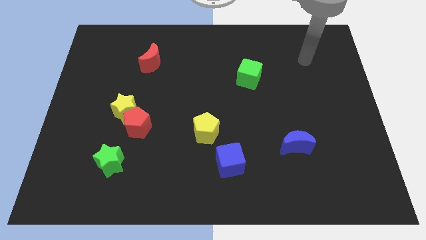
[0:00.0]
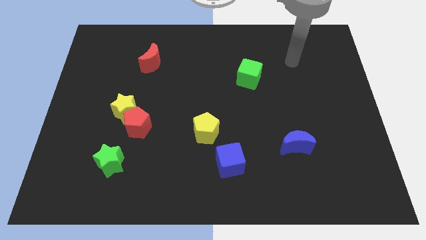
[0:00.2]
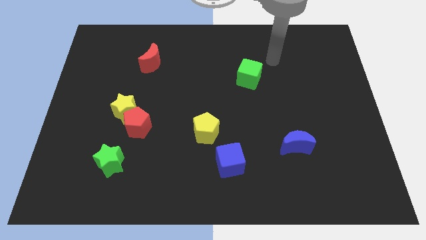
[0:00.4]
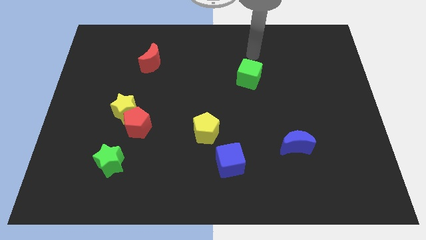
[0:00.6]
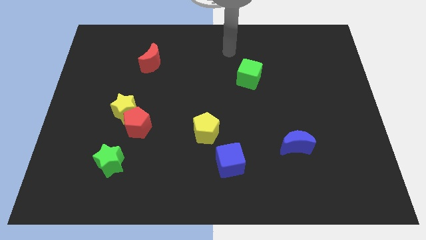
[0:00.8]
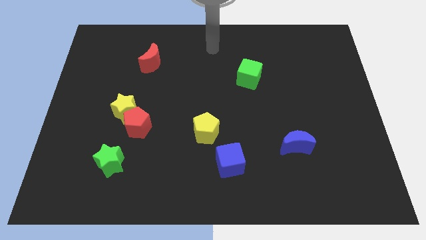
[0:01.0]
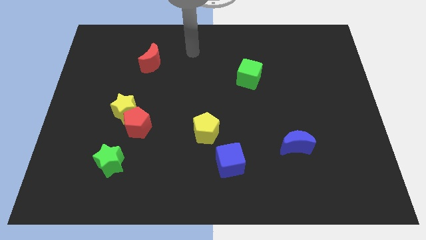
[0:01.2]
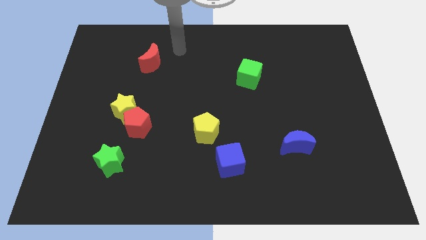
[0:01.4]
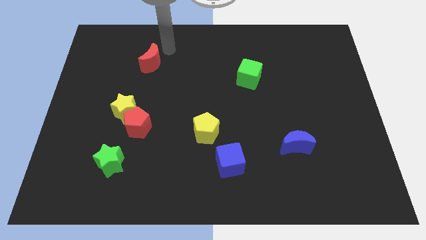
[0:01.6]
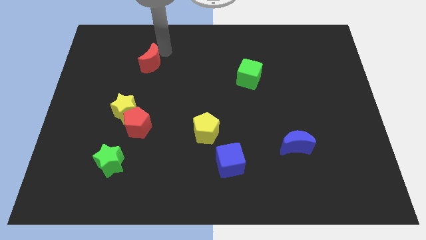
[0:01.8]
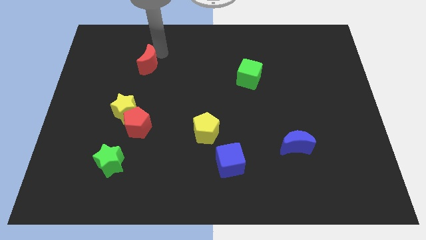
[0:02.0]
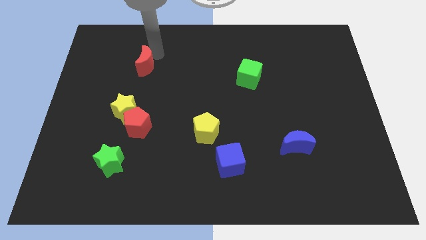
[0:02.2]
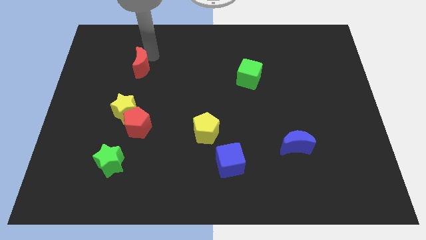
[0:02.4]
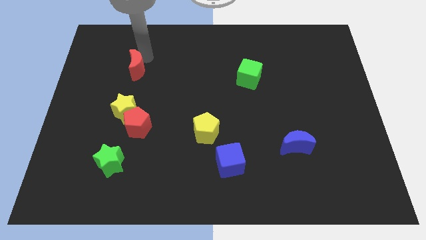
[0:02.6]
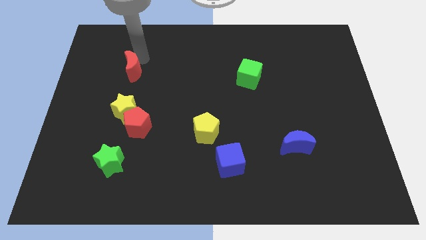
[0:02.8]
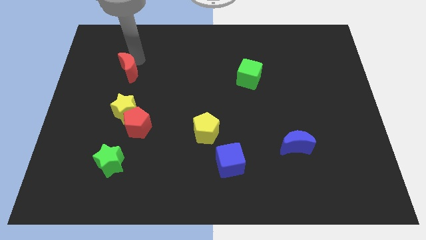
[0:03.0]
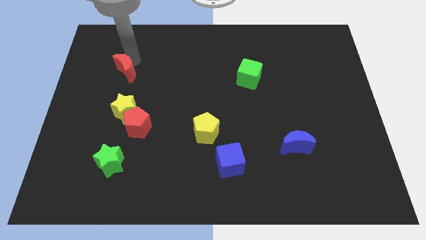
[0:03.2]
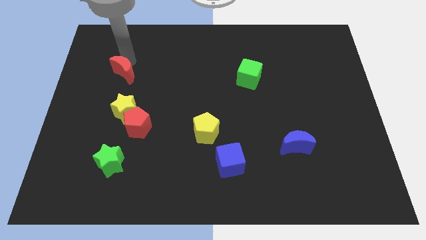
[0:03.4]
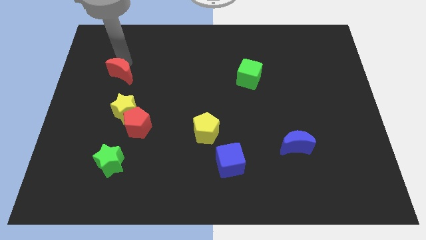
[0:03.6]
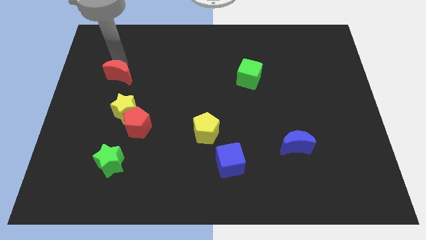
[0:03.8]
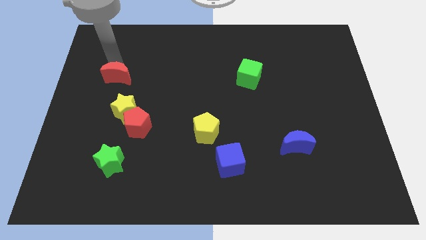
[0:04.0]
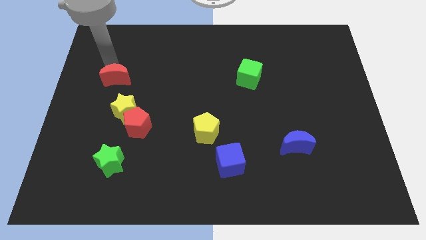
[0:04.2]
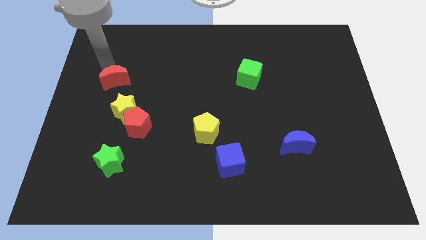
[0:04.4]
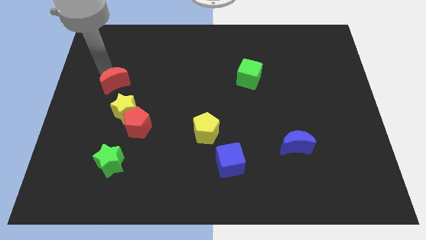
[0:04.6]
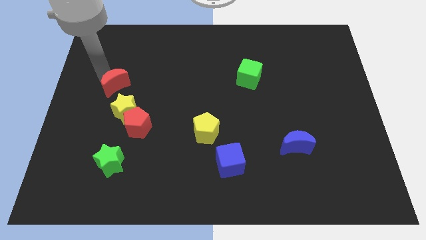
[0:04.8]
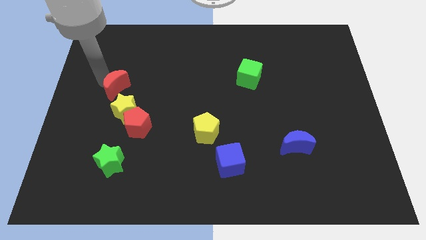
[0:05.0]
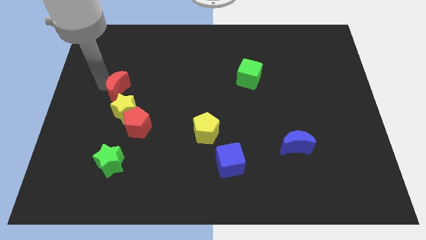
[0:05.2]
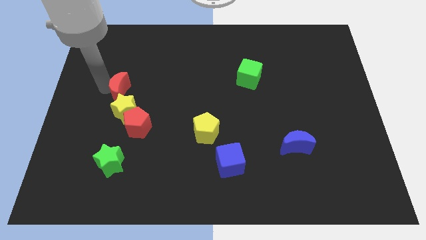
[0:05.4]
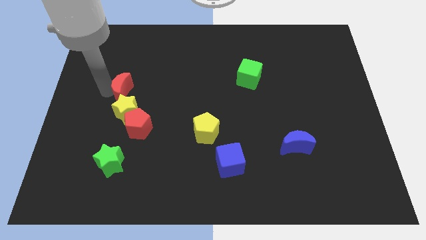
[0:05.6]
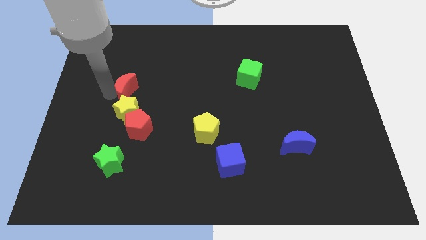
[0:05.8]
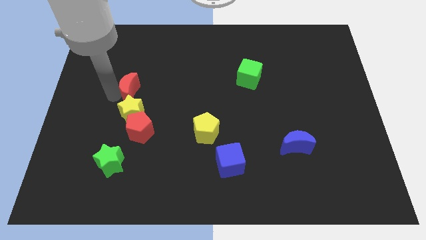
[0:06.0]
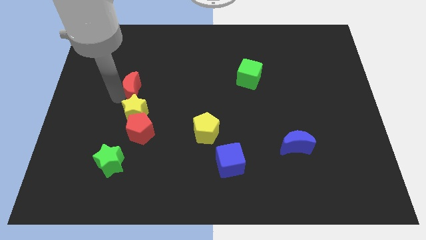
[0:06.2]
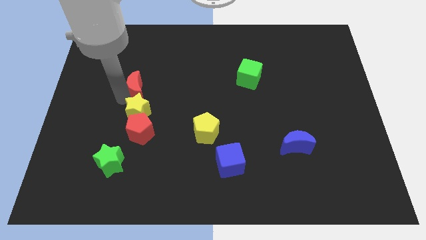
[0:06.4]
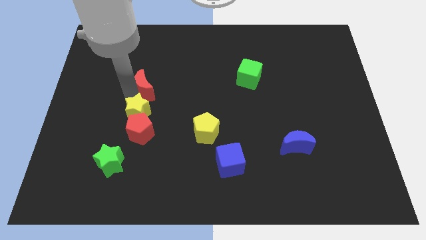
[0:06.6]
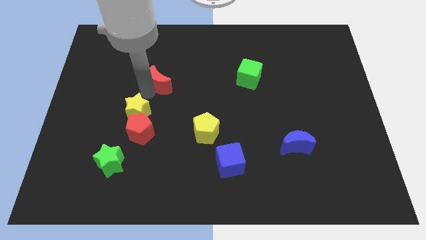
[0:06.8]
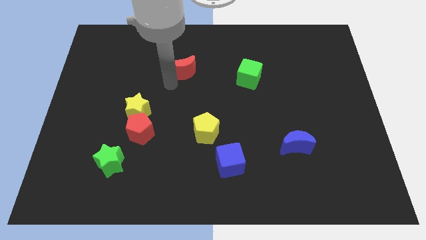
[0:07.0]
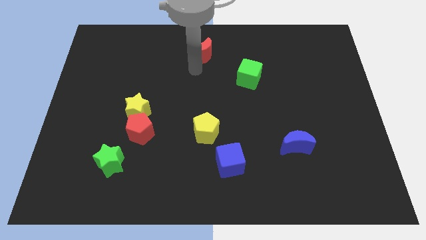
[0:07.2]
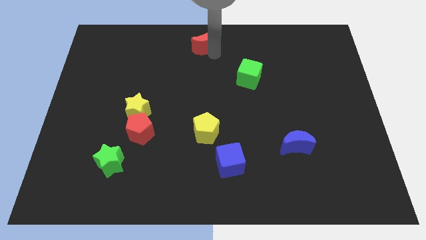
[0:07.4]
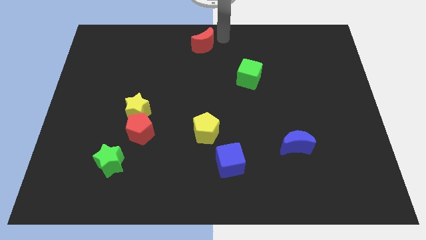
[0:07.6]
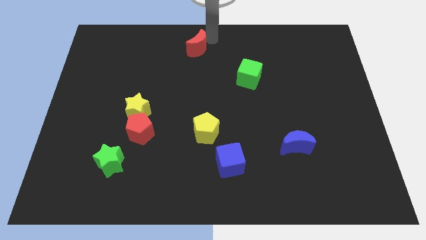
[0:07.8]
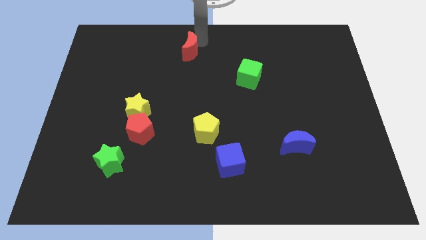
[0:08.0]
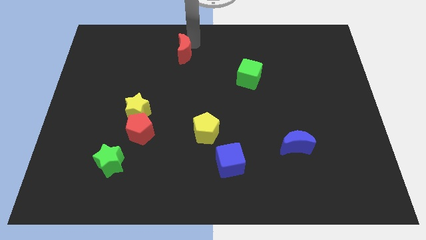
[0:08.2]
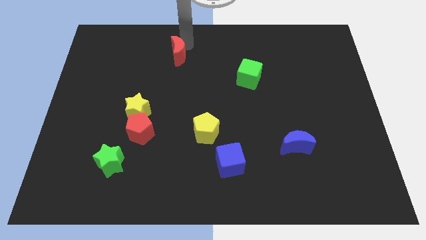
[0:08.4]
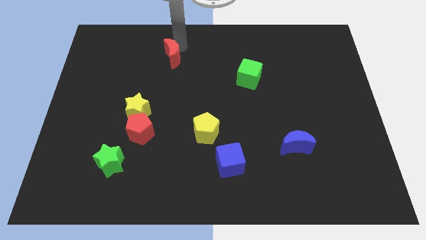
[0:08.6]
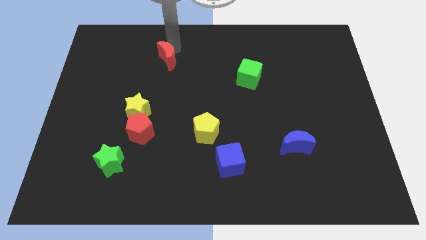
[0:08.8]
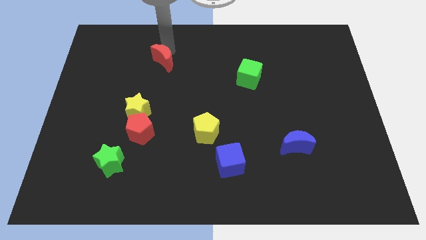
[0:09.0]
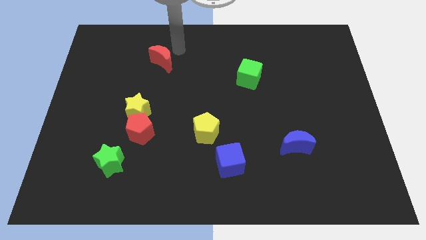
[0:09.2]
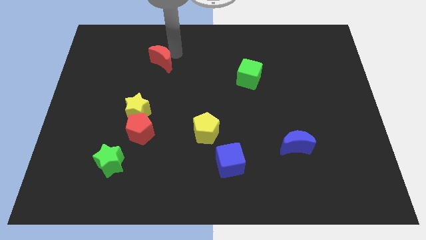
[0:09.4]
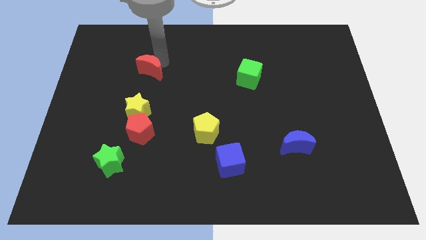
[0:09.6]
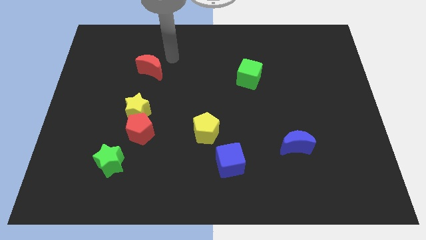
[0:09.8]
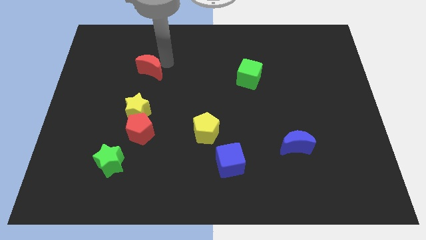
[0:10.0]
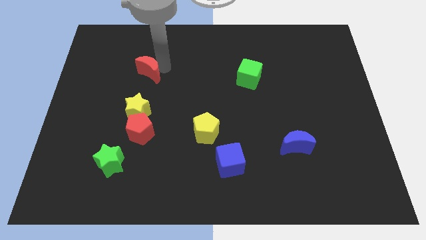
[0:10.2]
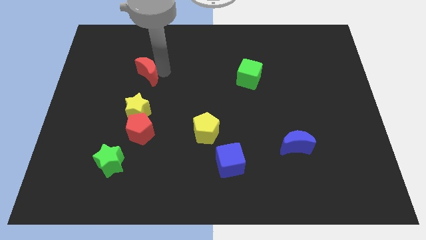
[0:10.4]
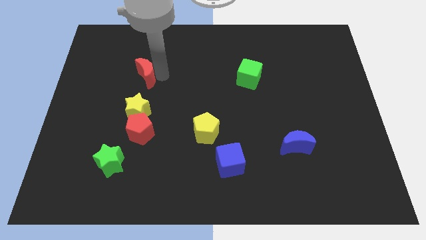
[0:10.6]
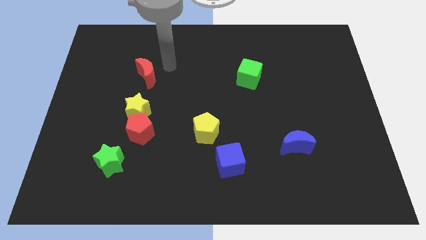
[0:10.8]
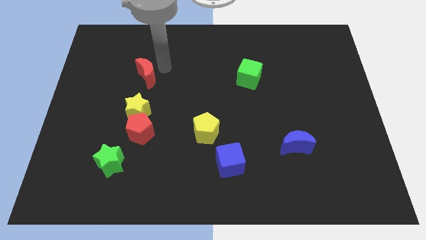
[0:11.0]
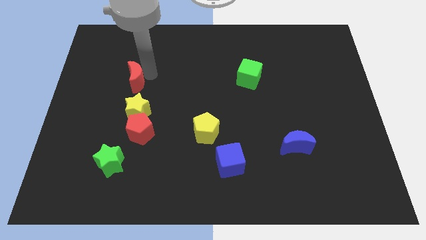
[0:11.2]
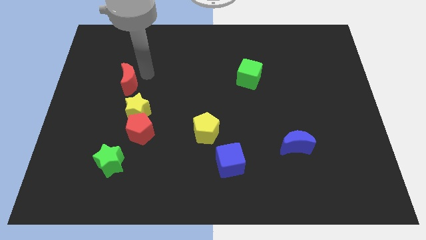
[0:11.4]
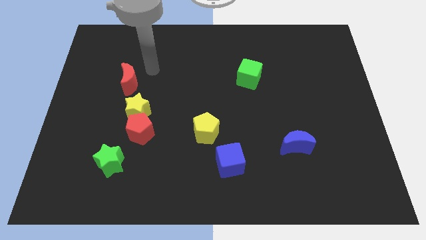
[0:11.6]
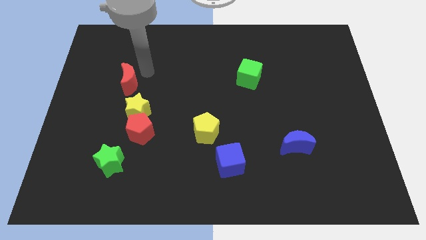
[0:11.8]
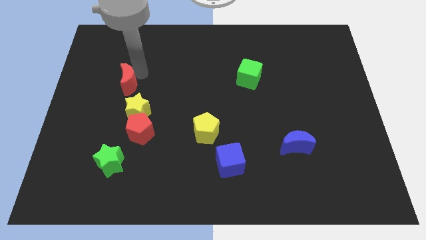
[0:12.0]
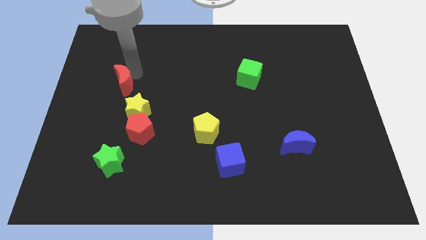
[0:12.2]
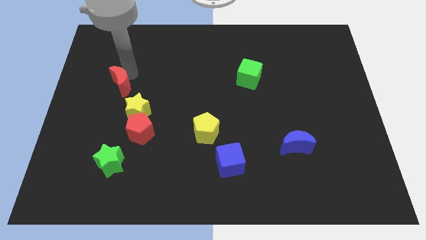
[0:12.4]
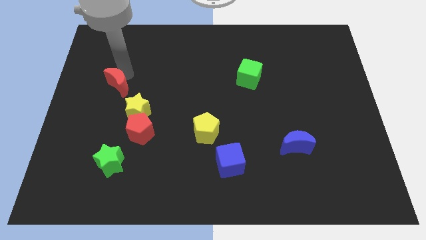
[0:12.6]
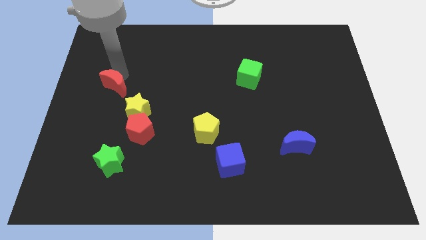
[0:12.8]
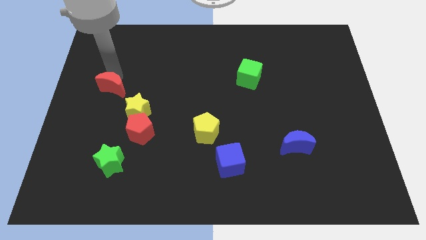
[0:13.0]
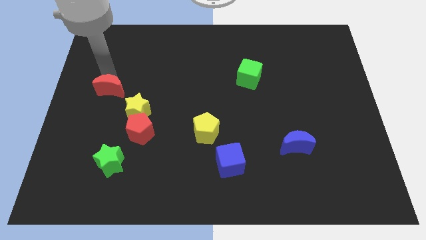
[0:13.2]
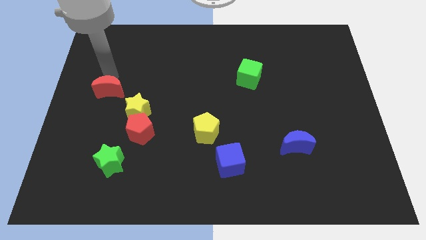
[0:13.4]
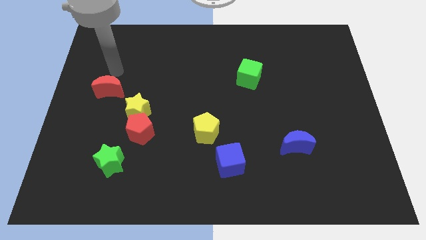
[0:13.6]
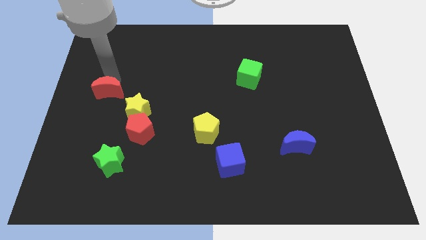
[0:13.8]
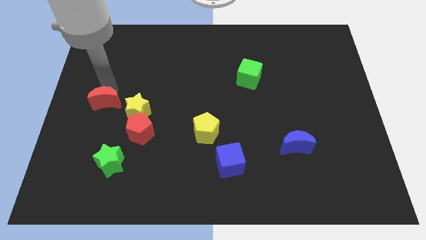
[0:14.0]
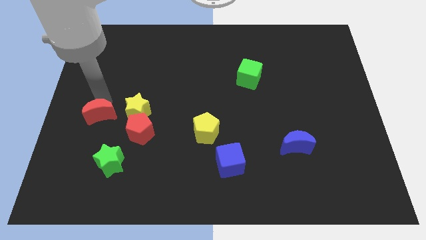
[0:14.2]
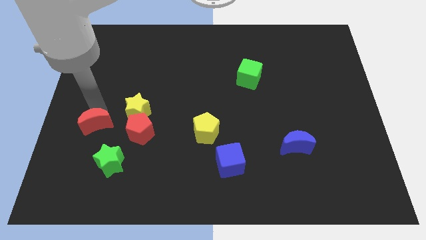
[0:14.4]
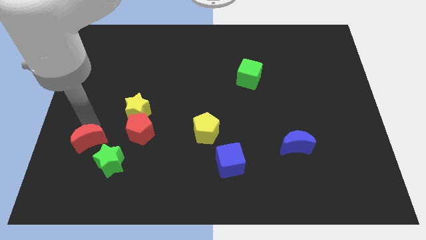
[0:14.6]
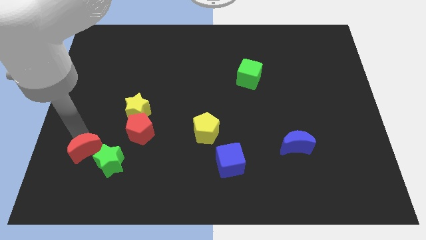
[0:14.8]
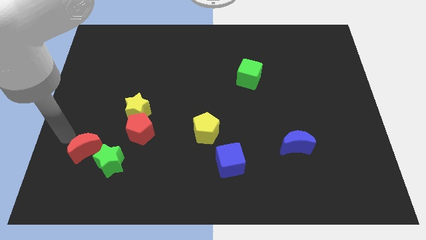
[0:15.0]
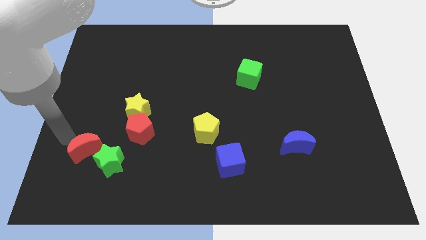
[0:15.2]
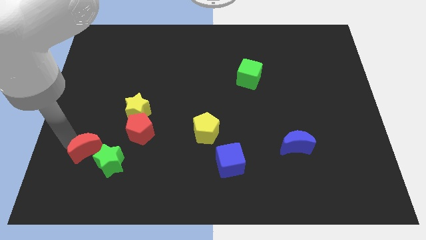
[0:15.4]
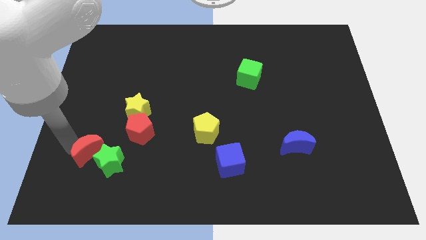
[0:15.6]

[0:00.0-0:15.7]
slide the red moon next to the green star
